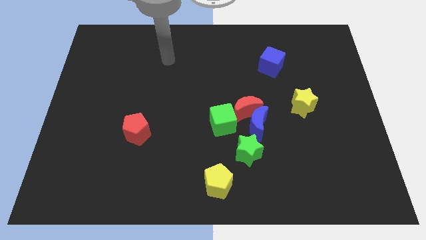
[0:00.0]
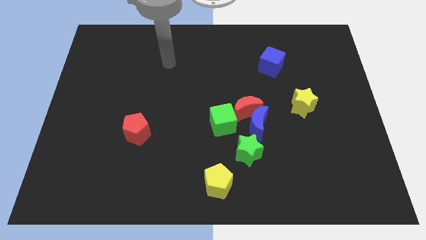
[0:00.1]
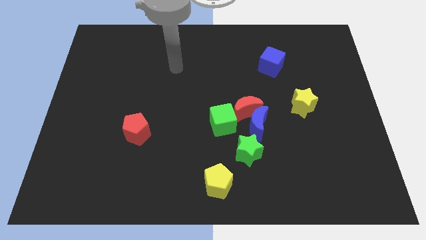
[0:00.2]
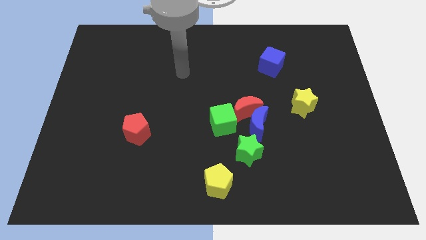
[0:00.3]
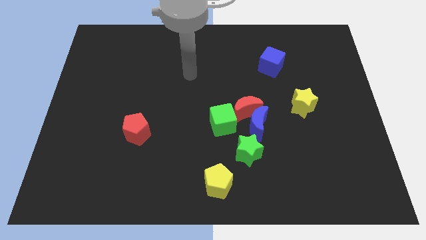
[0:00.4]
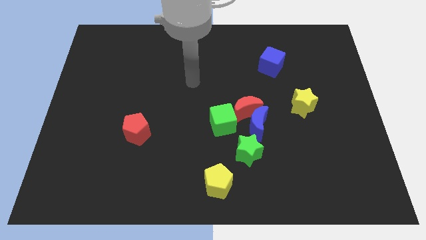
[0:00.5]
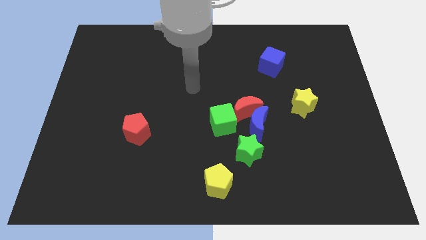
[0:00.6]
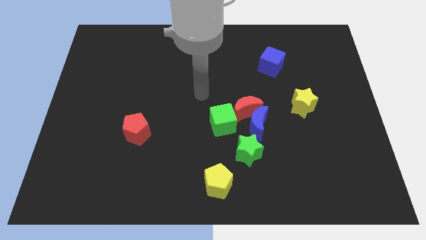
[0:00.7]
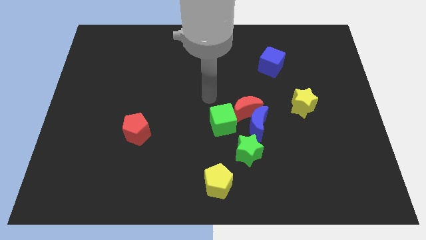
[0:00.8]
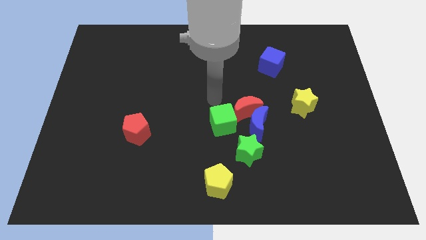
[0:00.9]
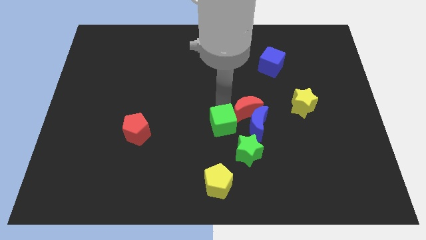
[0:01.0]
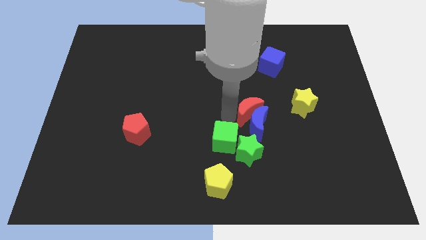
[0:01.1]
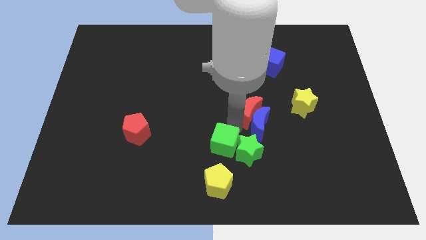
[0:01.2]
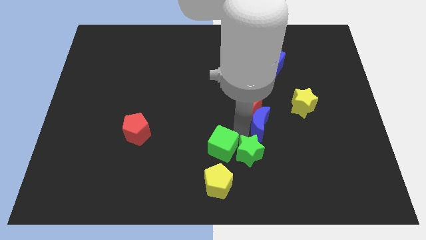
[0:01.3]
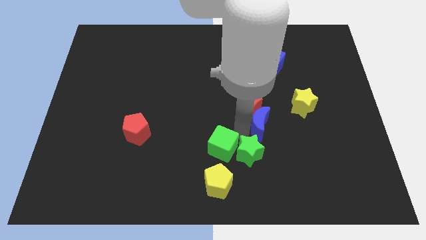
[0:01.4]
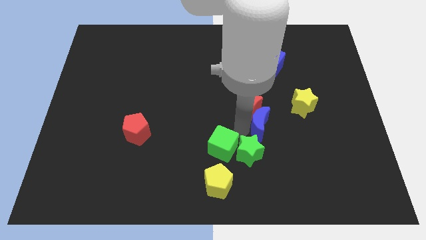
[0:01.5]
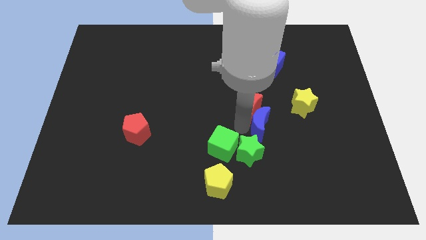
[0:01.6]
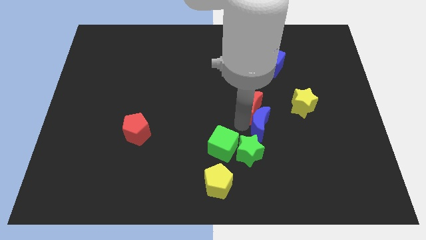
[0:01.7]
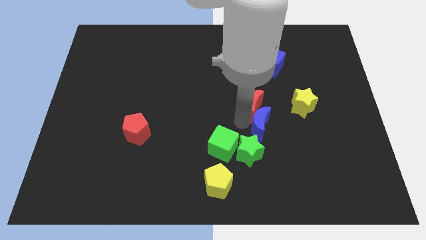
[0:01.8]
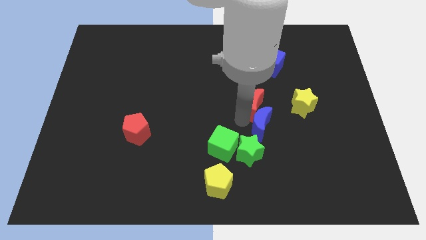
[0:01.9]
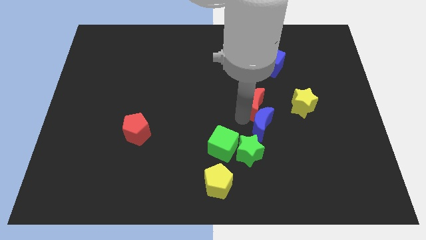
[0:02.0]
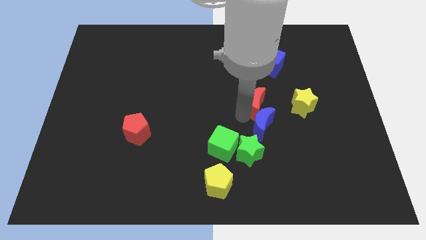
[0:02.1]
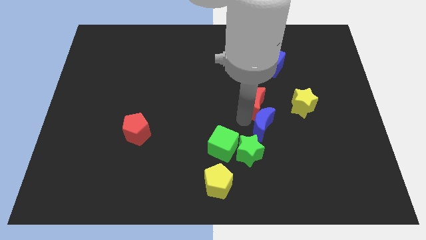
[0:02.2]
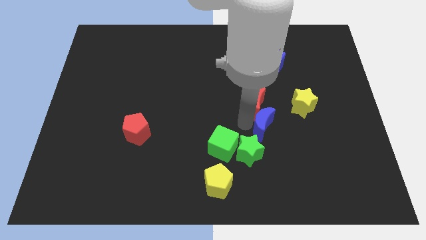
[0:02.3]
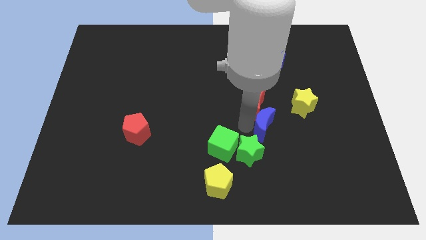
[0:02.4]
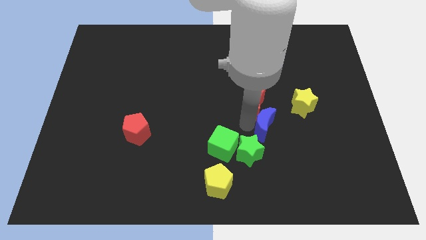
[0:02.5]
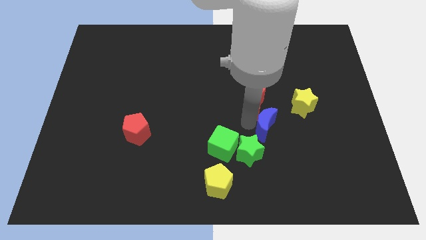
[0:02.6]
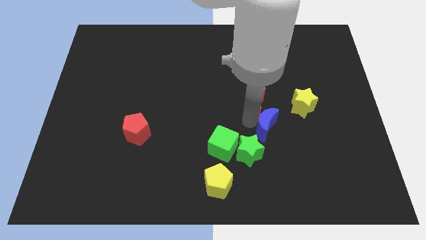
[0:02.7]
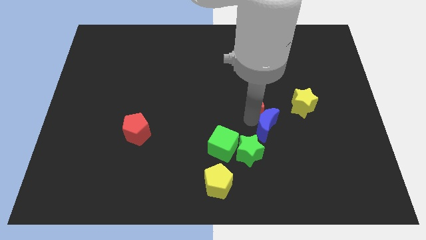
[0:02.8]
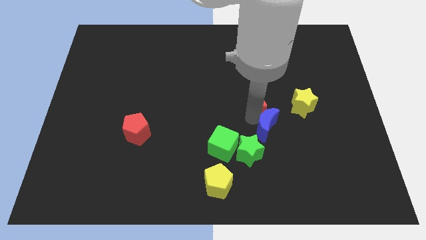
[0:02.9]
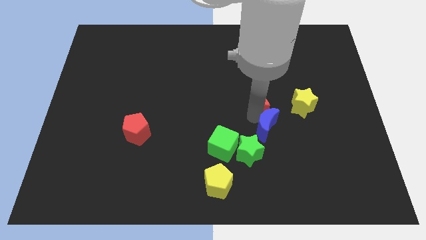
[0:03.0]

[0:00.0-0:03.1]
separate the red moon from the blue moon and green cube

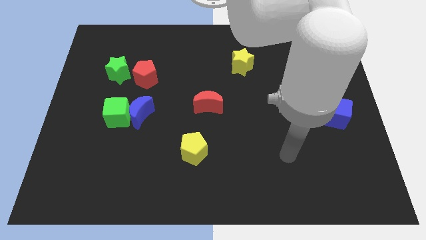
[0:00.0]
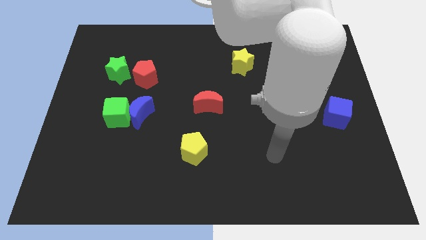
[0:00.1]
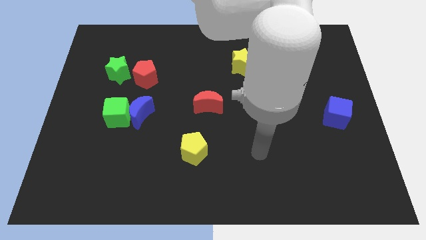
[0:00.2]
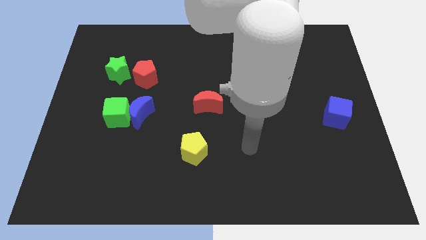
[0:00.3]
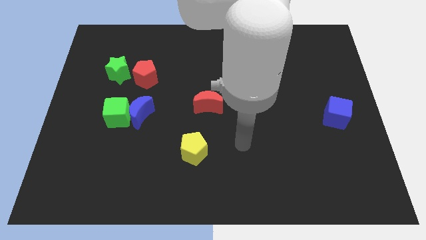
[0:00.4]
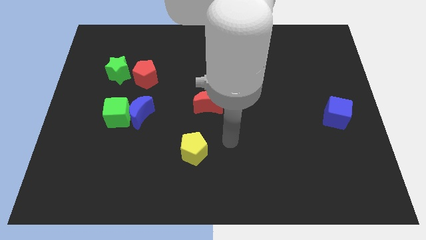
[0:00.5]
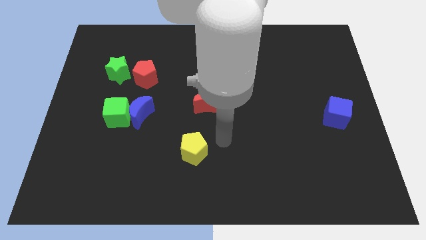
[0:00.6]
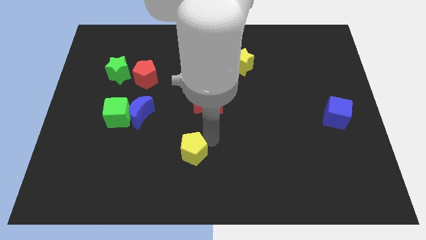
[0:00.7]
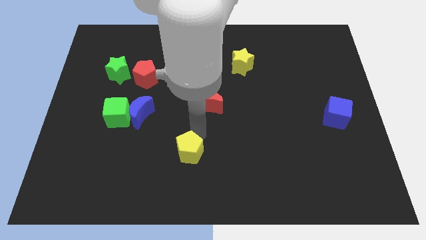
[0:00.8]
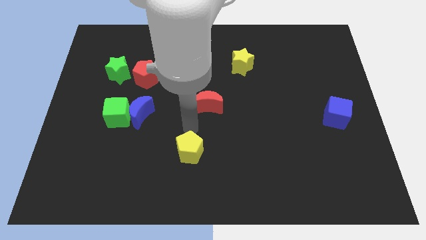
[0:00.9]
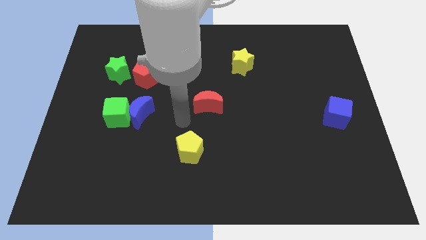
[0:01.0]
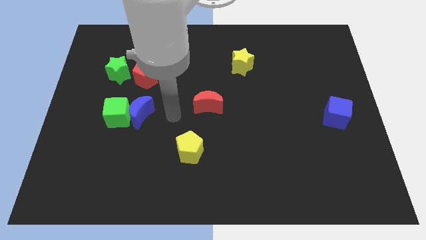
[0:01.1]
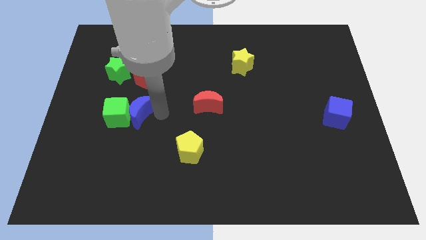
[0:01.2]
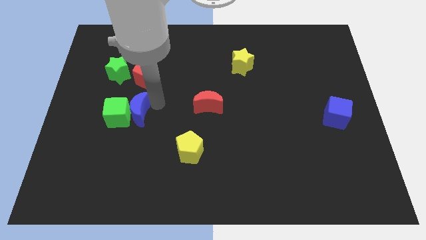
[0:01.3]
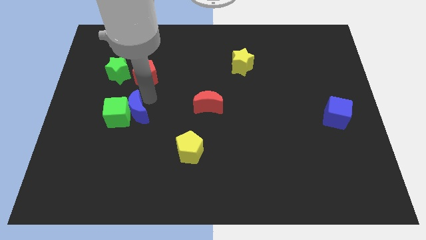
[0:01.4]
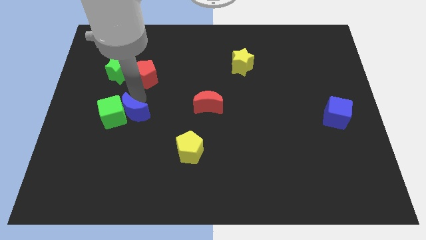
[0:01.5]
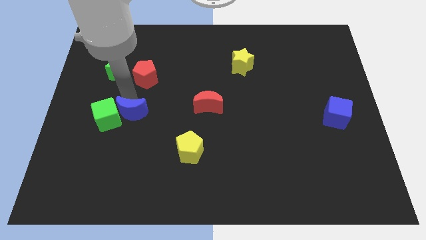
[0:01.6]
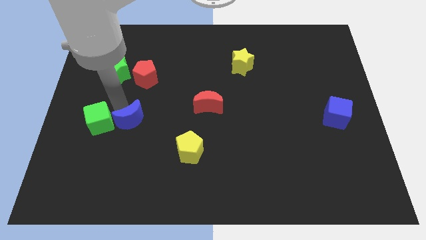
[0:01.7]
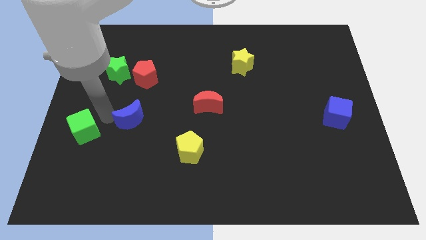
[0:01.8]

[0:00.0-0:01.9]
separate the blue moon from the green cube

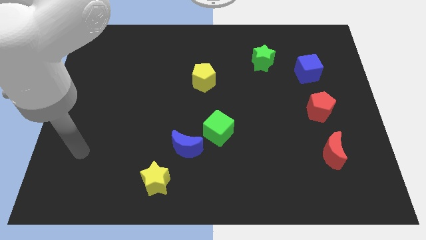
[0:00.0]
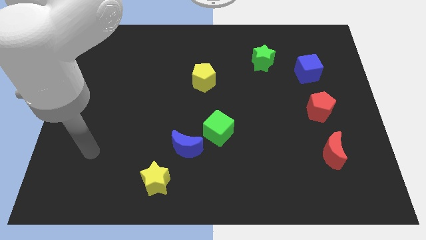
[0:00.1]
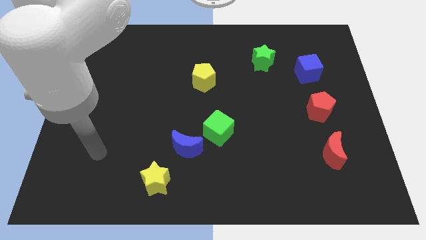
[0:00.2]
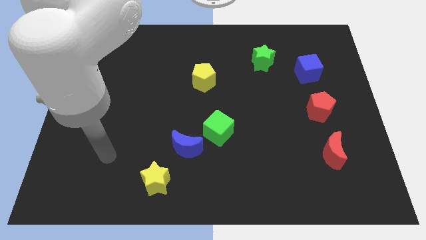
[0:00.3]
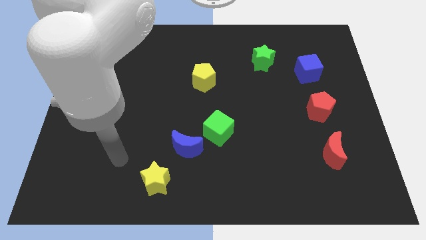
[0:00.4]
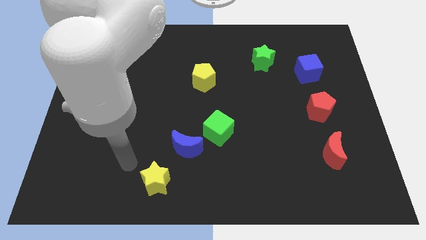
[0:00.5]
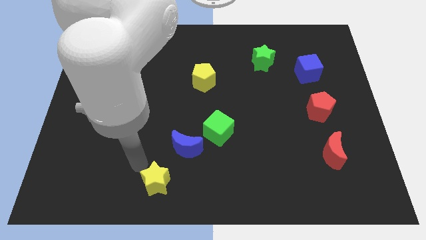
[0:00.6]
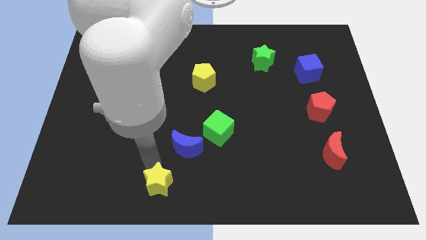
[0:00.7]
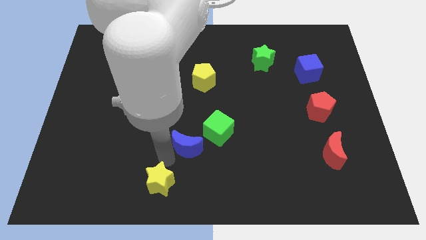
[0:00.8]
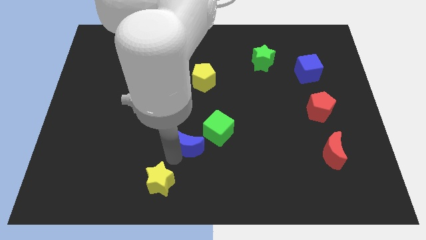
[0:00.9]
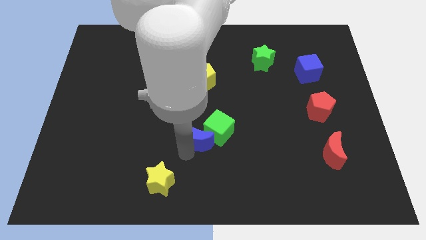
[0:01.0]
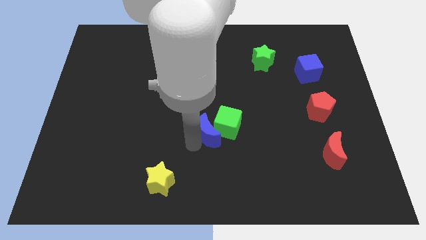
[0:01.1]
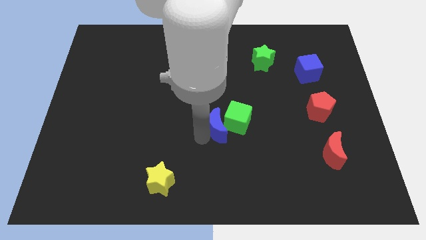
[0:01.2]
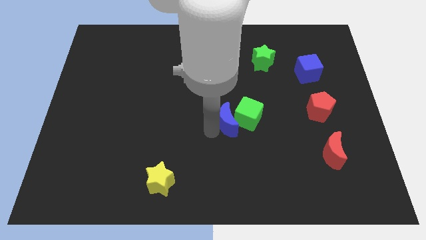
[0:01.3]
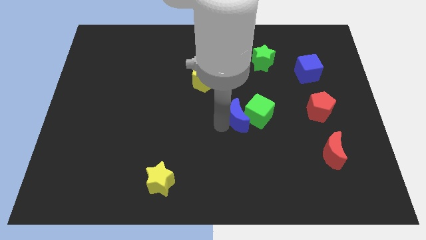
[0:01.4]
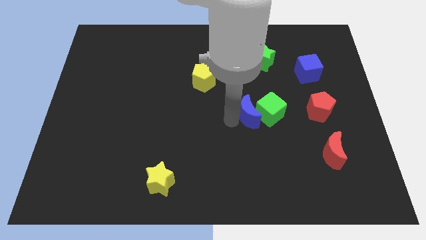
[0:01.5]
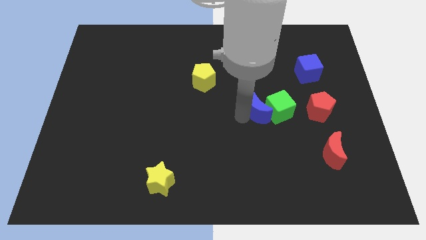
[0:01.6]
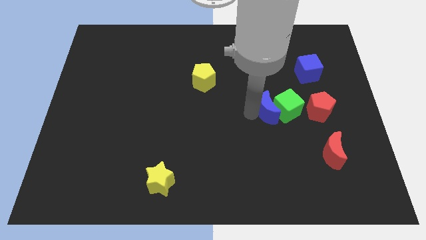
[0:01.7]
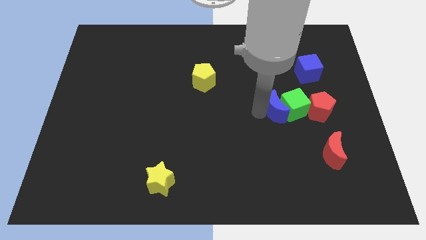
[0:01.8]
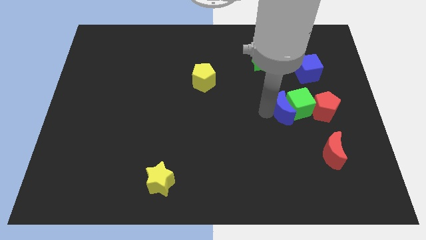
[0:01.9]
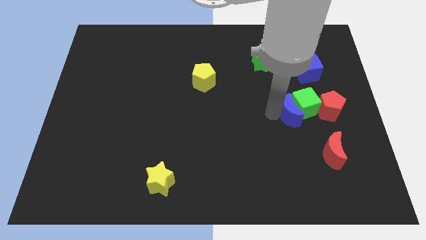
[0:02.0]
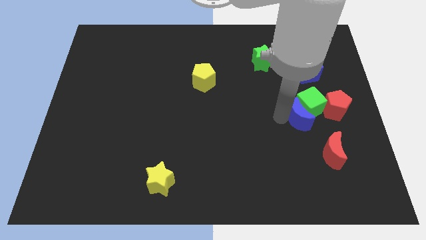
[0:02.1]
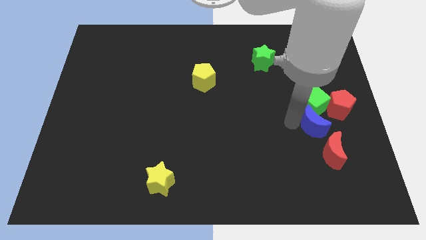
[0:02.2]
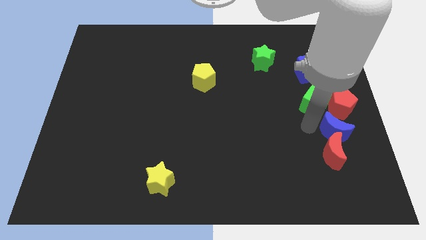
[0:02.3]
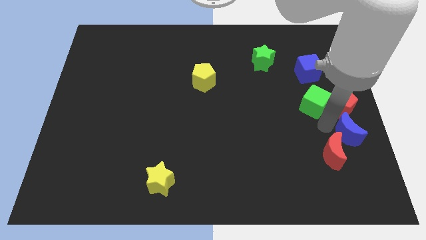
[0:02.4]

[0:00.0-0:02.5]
move the green cube away from the blue moon

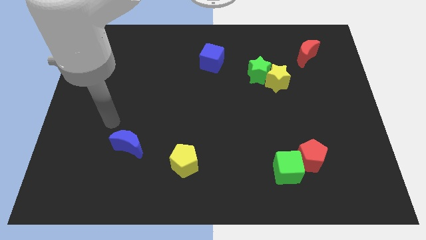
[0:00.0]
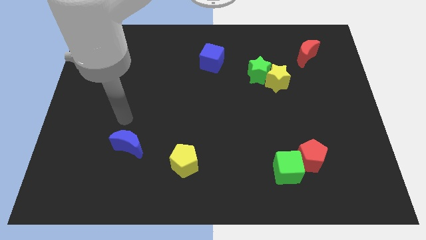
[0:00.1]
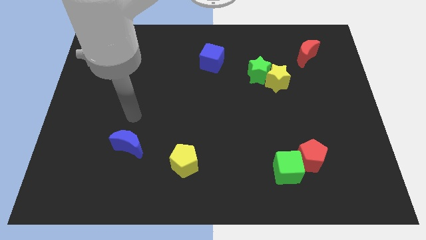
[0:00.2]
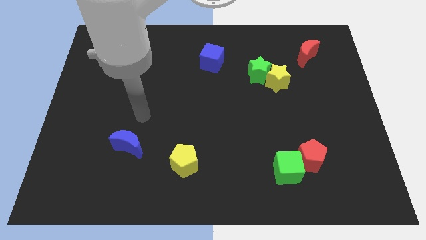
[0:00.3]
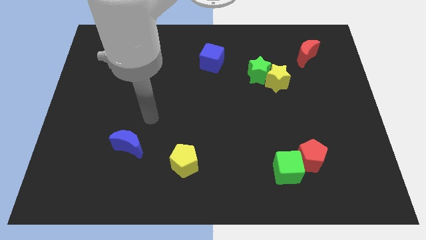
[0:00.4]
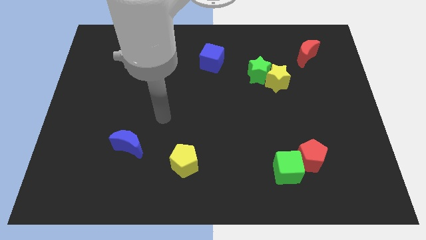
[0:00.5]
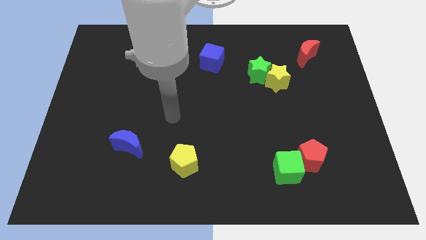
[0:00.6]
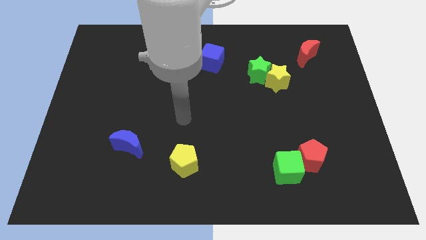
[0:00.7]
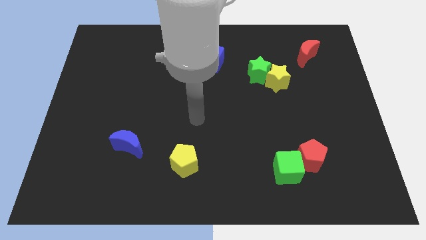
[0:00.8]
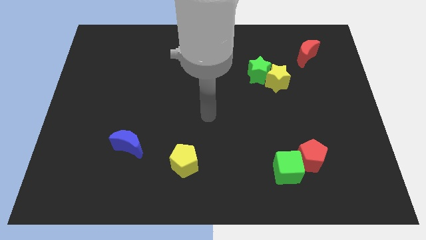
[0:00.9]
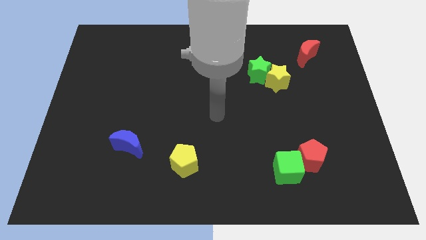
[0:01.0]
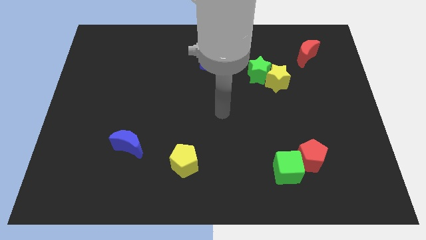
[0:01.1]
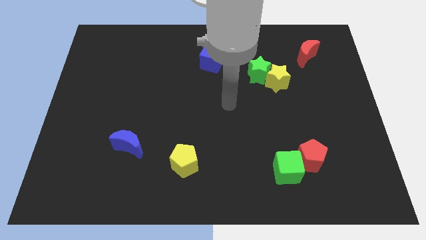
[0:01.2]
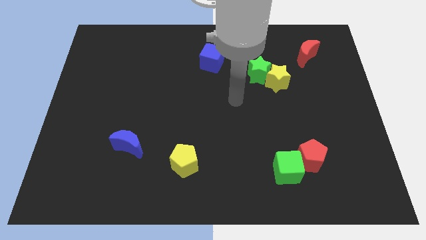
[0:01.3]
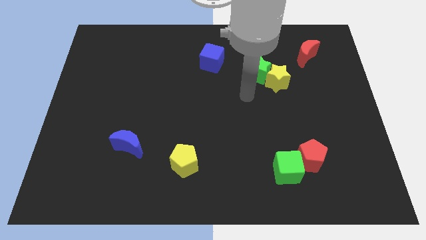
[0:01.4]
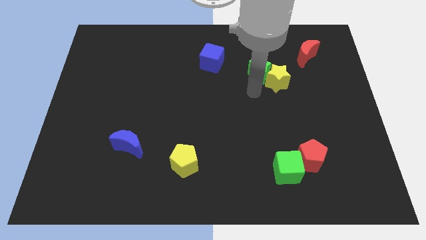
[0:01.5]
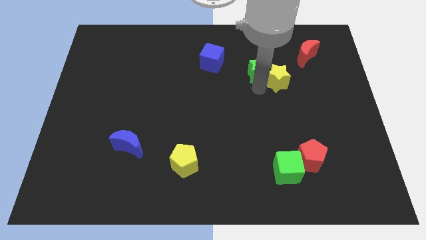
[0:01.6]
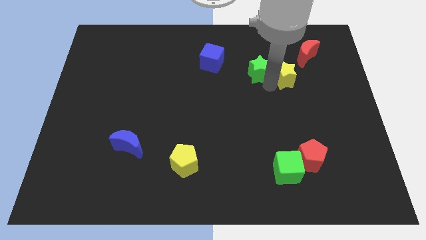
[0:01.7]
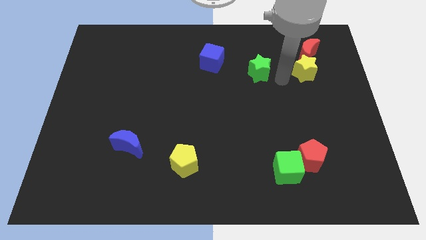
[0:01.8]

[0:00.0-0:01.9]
pull the green star apart from the yellow star
